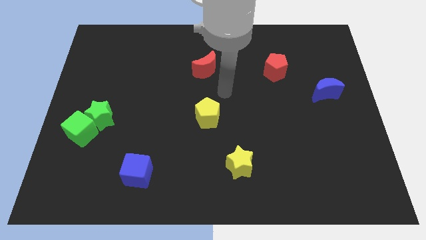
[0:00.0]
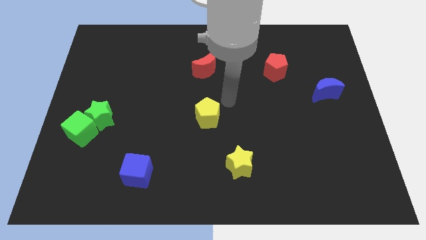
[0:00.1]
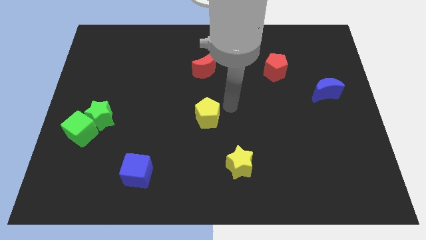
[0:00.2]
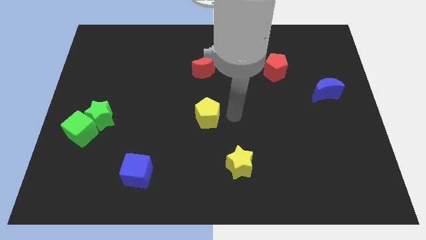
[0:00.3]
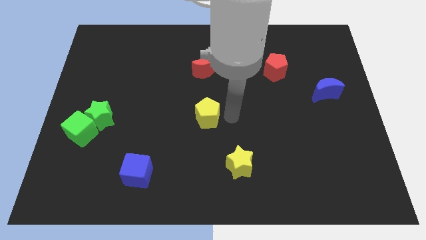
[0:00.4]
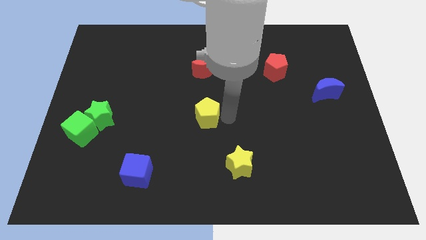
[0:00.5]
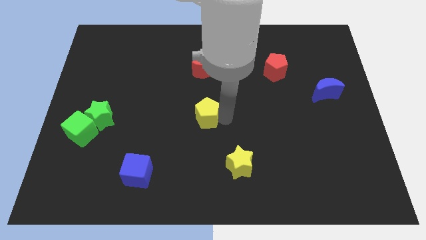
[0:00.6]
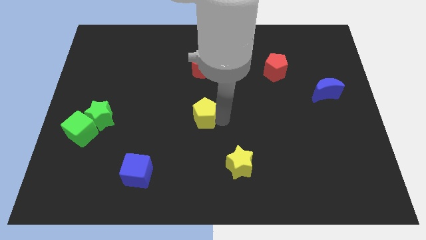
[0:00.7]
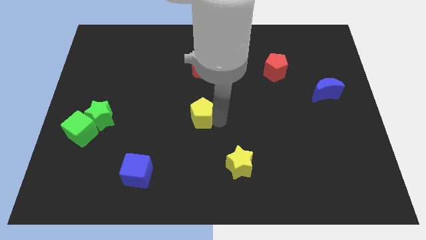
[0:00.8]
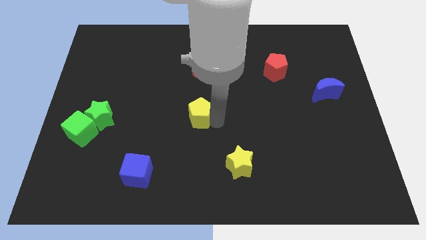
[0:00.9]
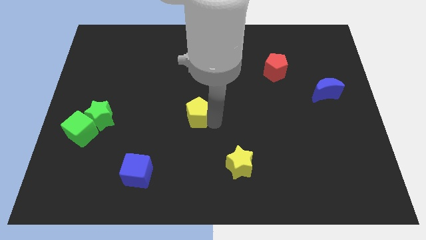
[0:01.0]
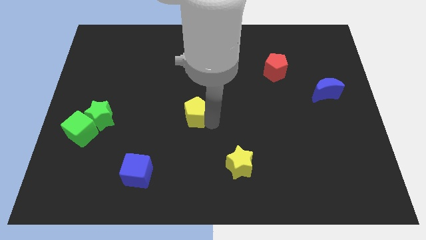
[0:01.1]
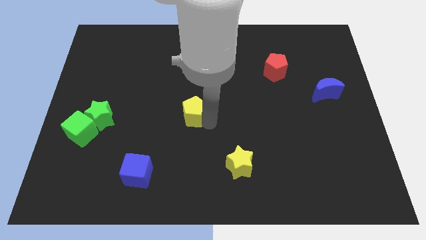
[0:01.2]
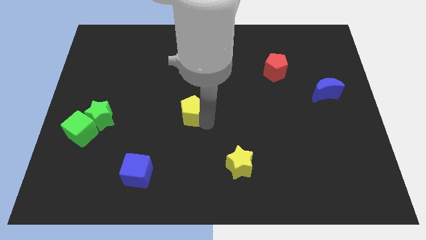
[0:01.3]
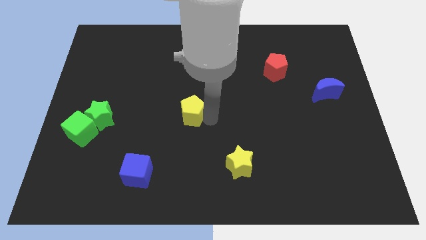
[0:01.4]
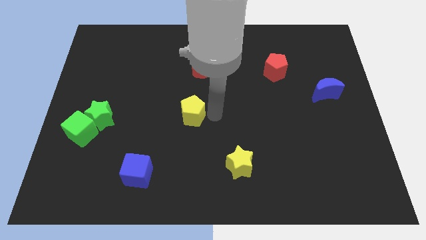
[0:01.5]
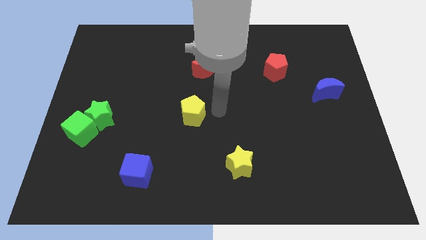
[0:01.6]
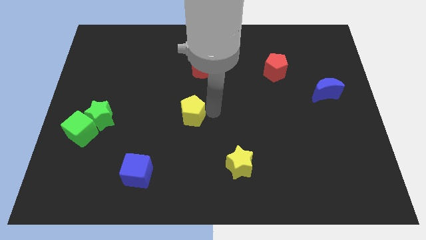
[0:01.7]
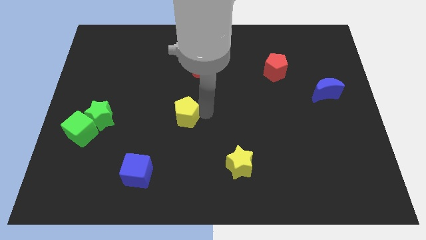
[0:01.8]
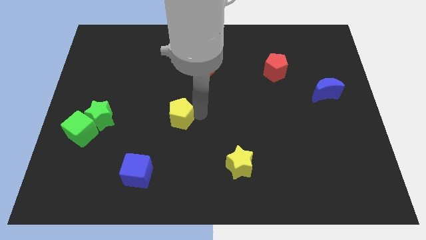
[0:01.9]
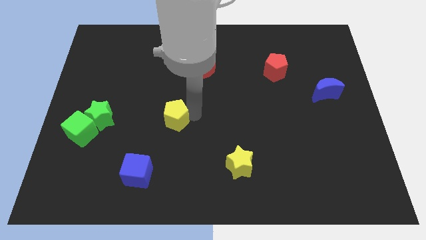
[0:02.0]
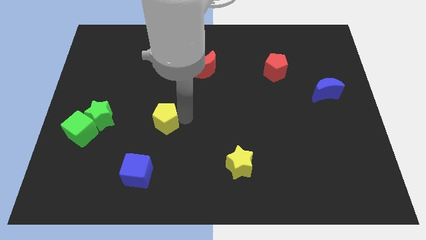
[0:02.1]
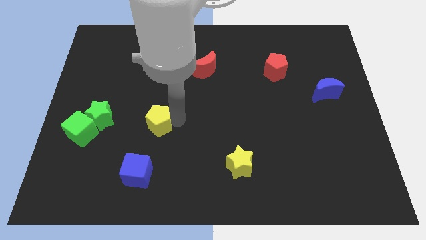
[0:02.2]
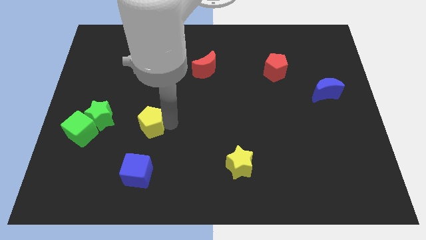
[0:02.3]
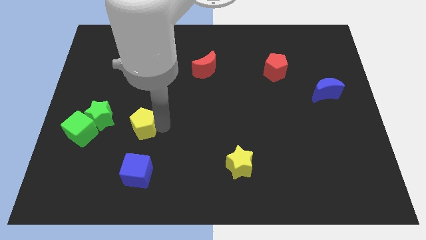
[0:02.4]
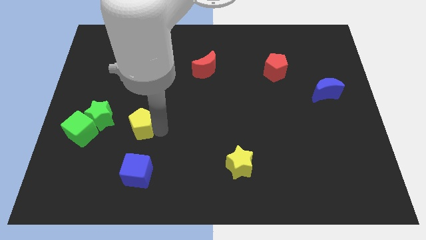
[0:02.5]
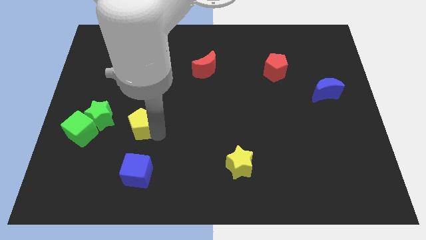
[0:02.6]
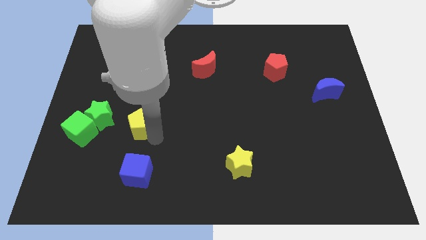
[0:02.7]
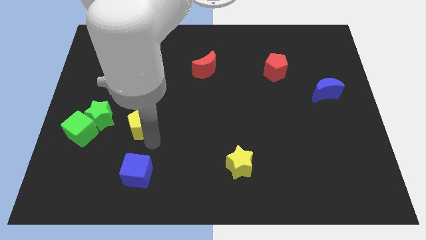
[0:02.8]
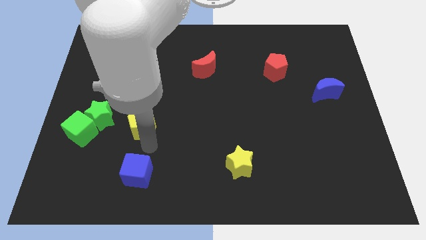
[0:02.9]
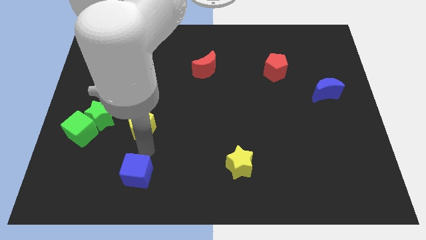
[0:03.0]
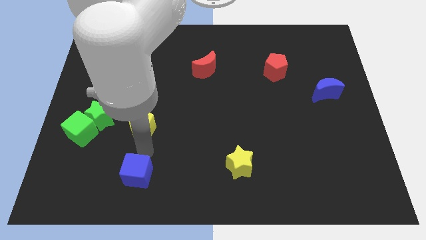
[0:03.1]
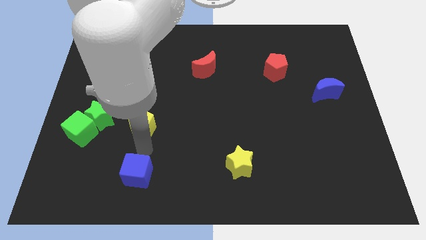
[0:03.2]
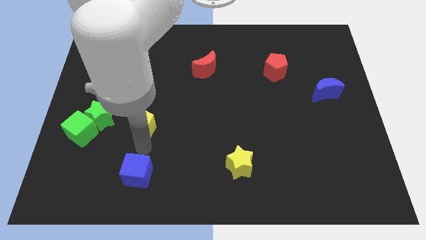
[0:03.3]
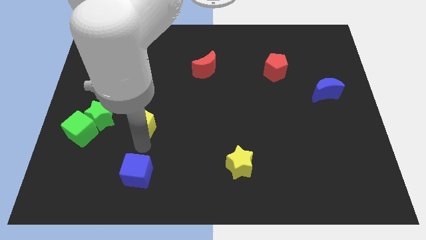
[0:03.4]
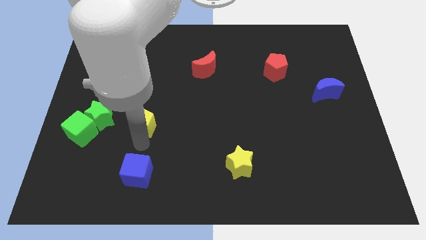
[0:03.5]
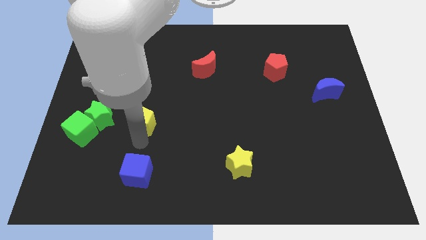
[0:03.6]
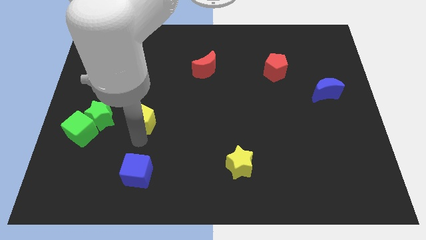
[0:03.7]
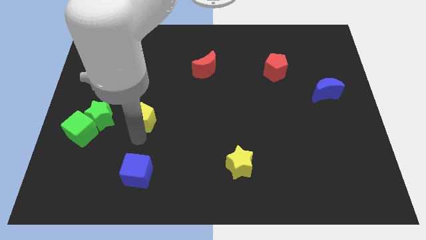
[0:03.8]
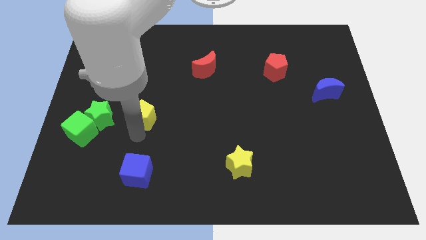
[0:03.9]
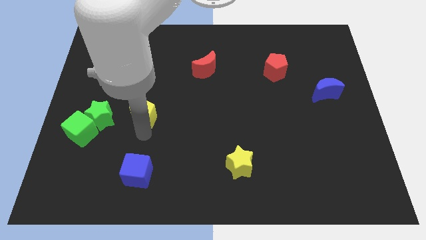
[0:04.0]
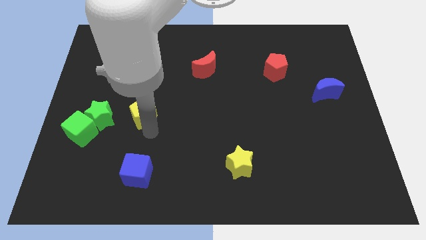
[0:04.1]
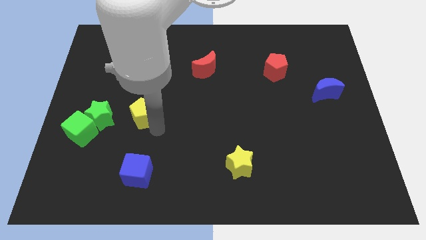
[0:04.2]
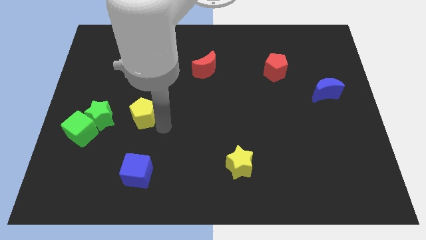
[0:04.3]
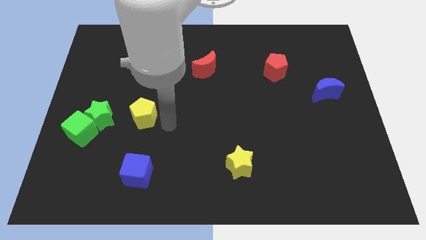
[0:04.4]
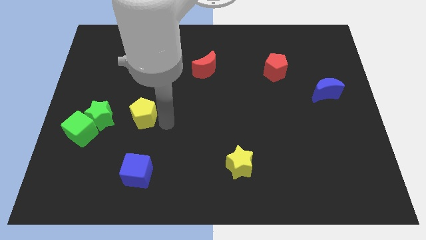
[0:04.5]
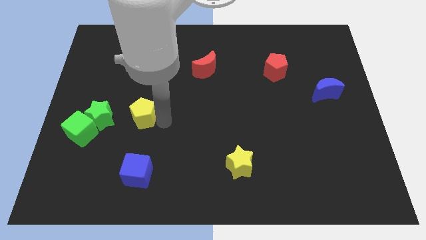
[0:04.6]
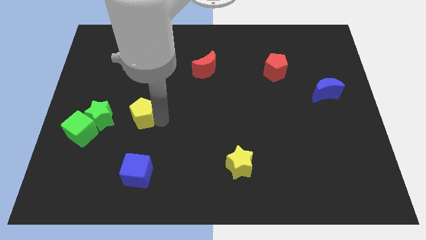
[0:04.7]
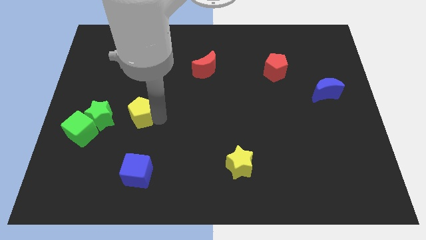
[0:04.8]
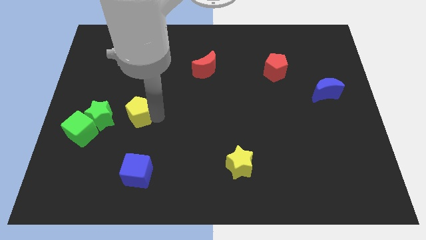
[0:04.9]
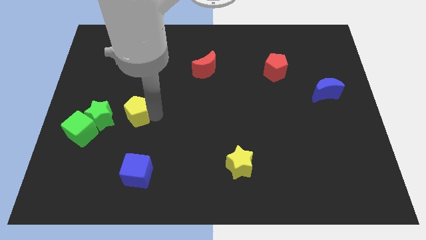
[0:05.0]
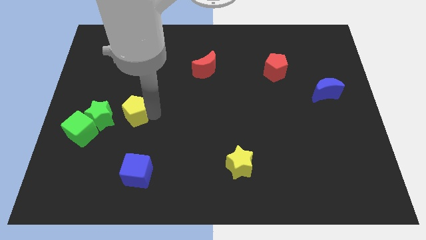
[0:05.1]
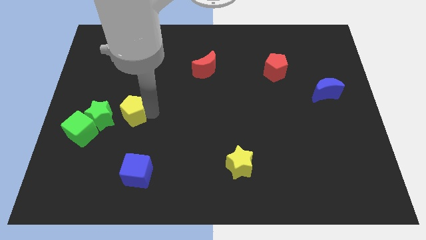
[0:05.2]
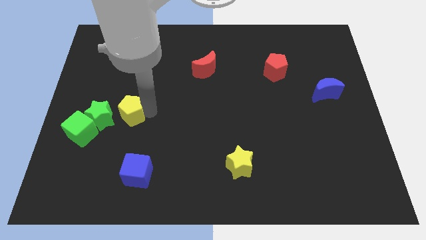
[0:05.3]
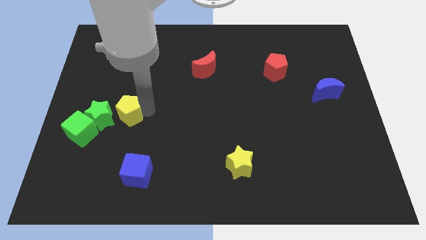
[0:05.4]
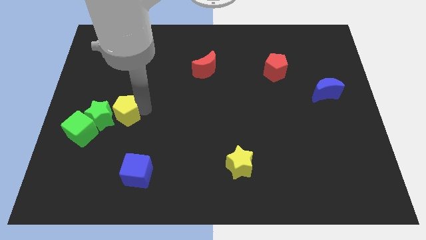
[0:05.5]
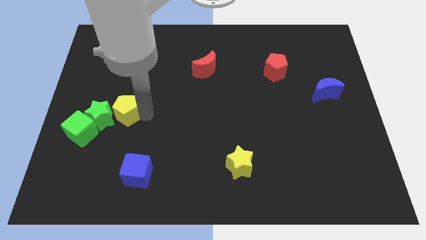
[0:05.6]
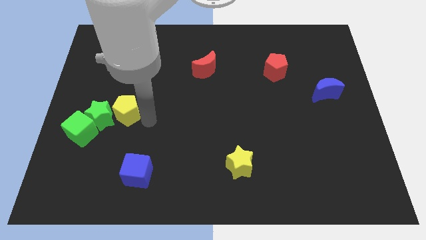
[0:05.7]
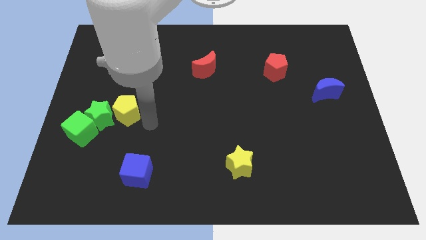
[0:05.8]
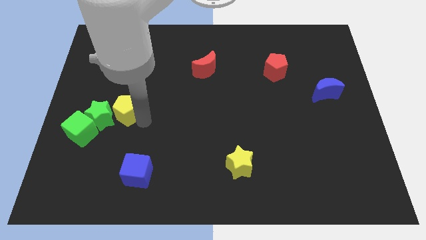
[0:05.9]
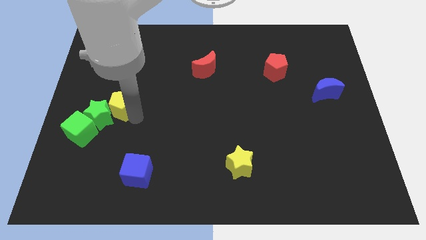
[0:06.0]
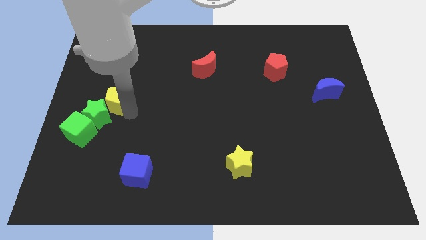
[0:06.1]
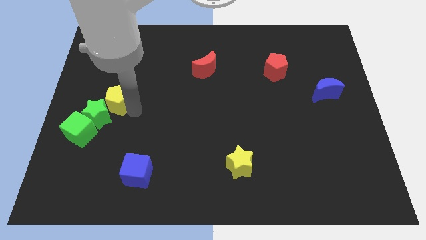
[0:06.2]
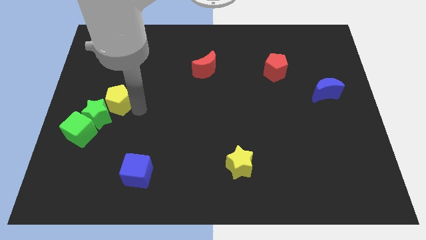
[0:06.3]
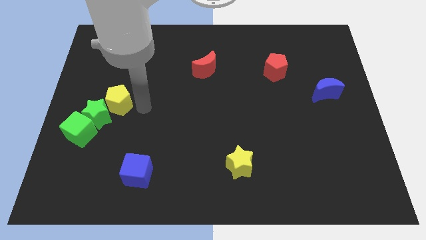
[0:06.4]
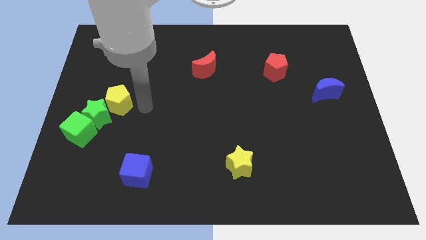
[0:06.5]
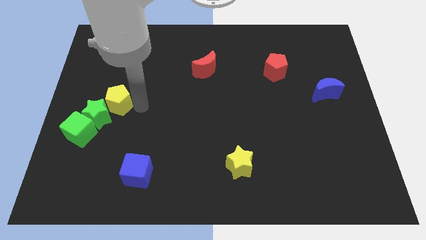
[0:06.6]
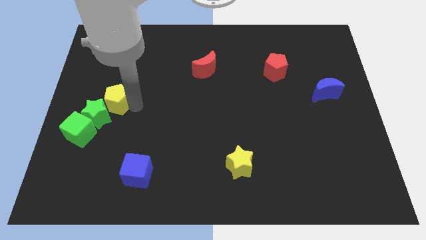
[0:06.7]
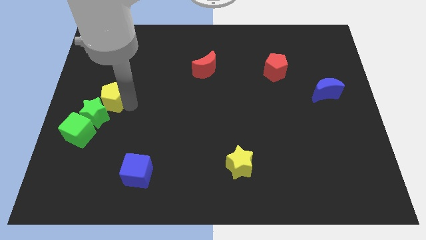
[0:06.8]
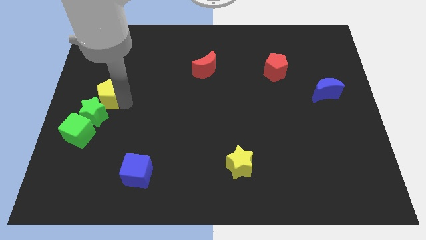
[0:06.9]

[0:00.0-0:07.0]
move the yellow pentagon to the center left
